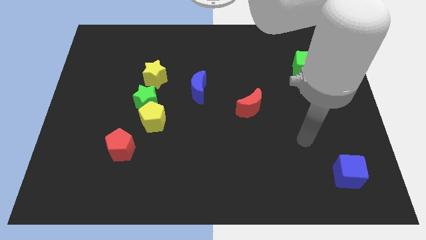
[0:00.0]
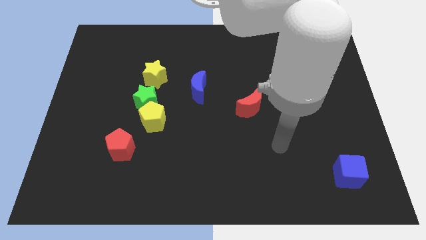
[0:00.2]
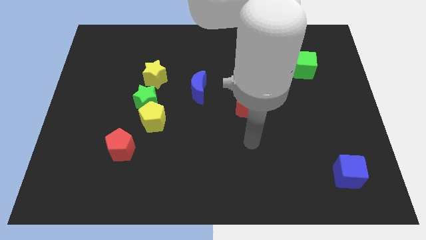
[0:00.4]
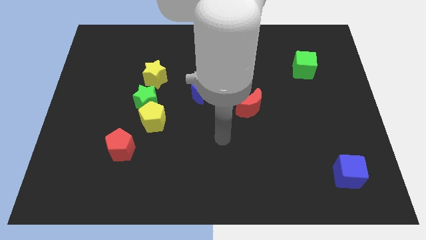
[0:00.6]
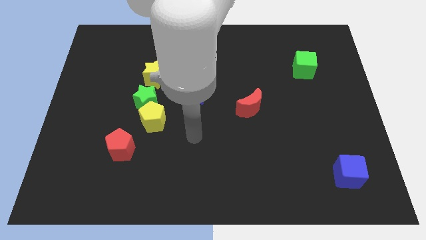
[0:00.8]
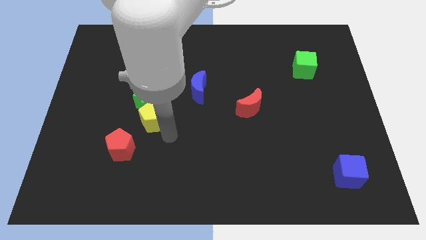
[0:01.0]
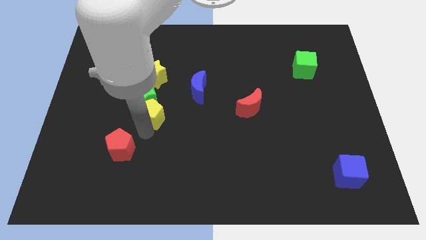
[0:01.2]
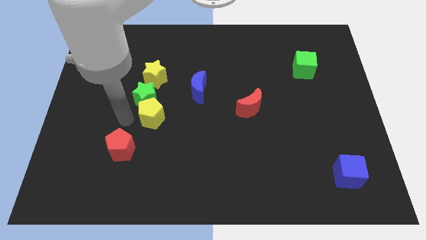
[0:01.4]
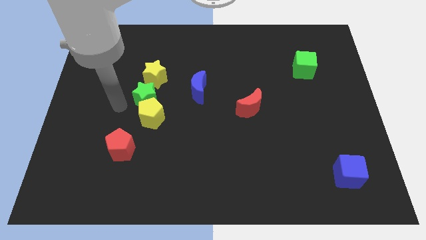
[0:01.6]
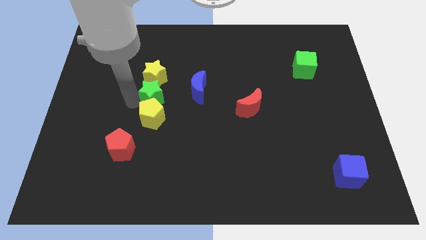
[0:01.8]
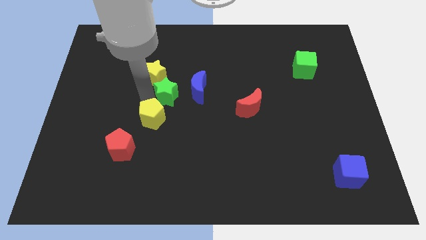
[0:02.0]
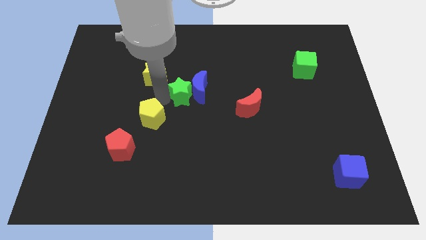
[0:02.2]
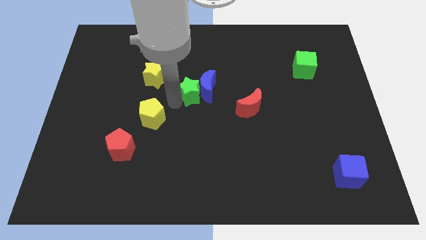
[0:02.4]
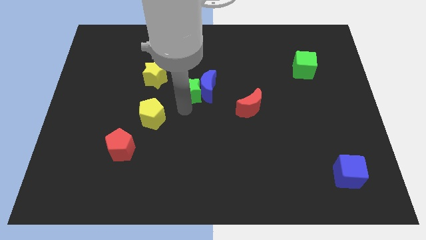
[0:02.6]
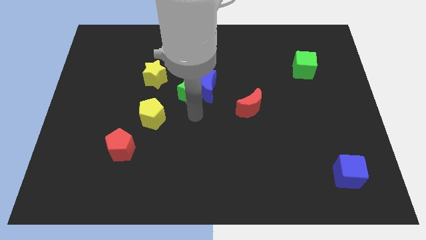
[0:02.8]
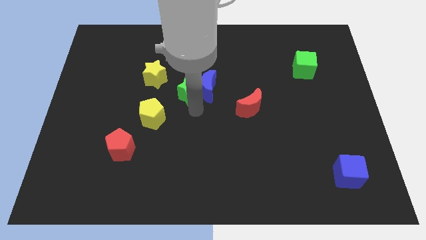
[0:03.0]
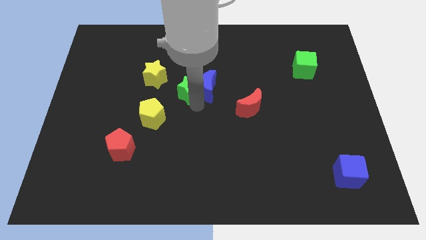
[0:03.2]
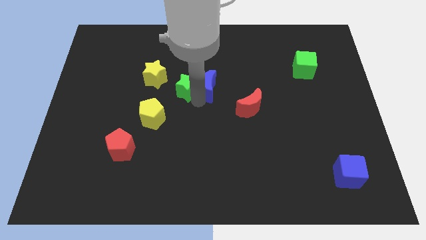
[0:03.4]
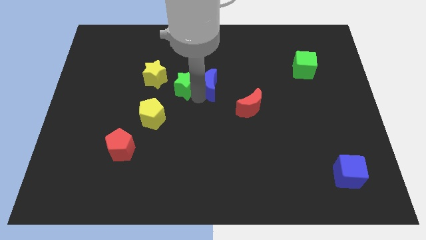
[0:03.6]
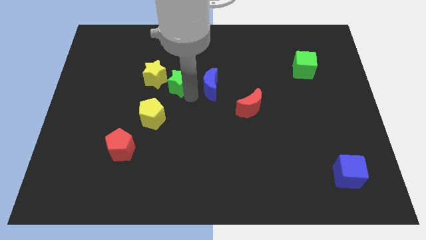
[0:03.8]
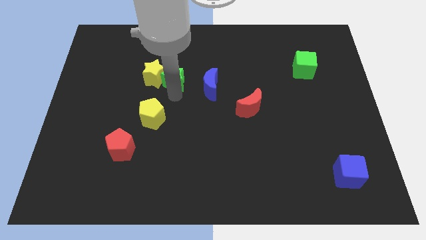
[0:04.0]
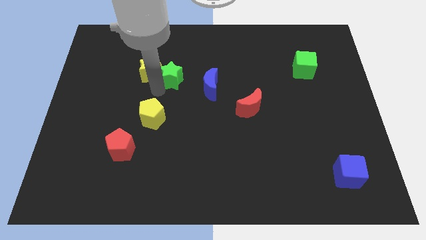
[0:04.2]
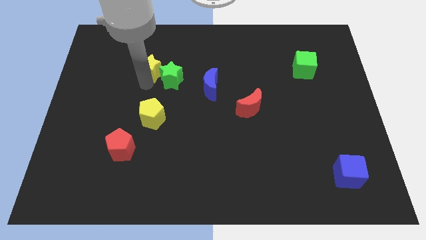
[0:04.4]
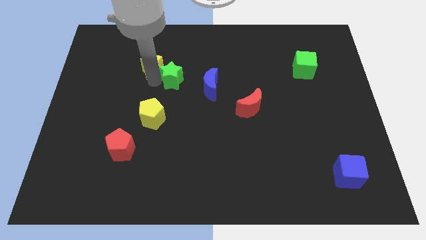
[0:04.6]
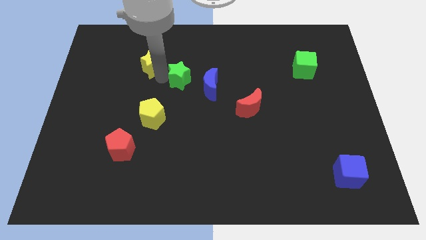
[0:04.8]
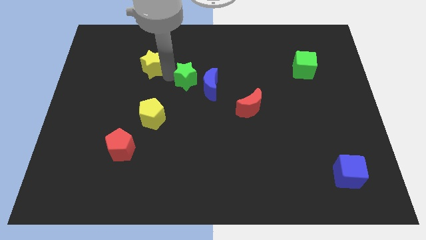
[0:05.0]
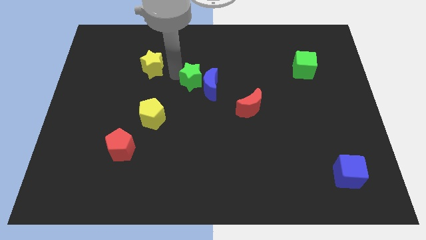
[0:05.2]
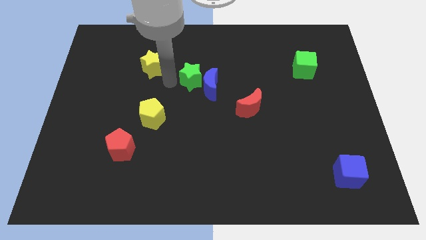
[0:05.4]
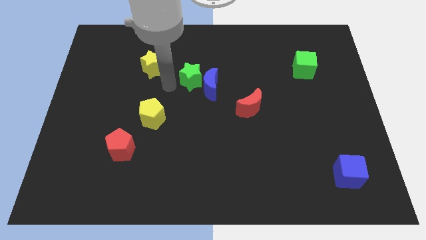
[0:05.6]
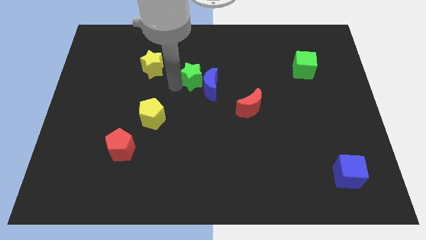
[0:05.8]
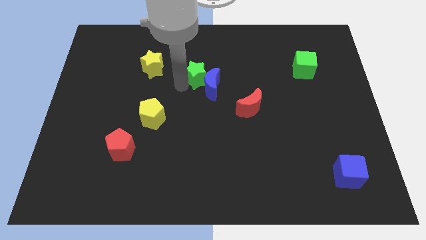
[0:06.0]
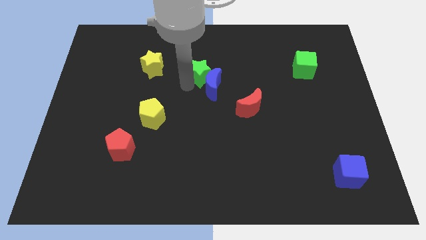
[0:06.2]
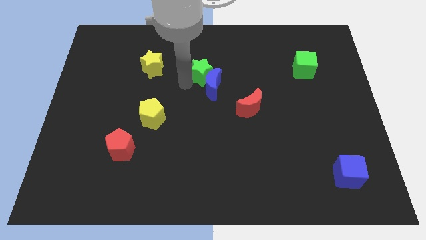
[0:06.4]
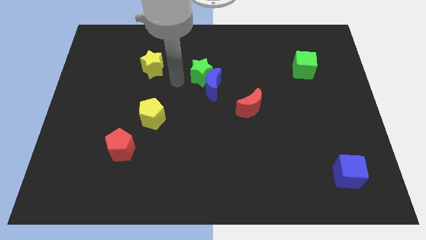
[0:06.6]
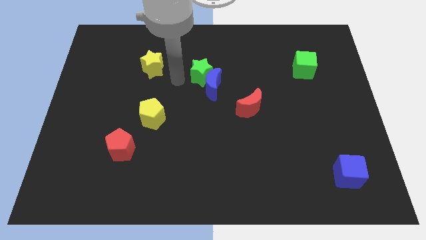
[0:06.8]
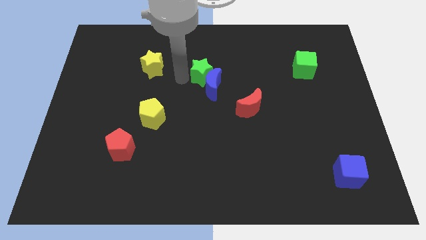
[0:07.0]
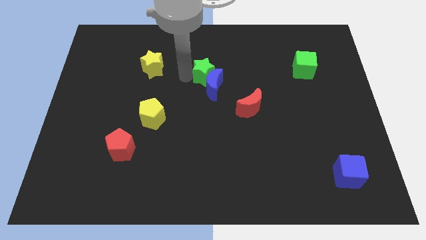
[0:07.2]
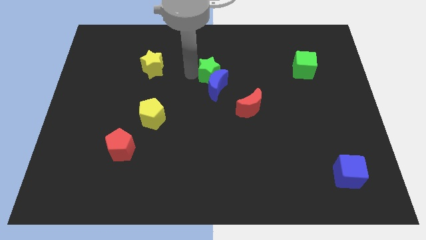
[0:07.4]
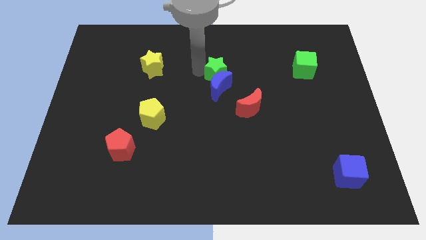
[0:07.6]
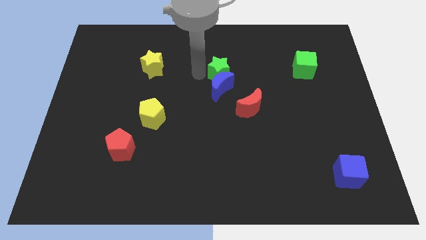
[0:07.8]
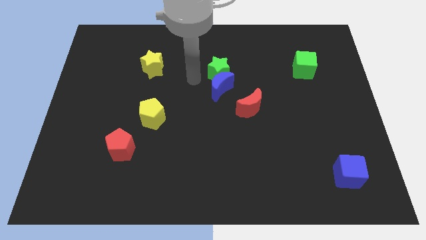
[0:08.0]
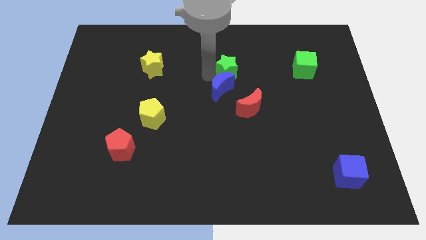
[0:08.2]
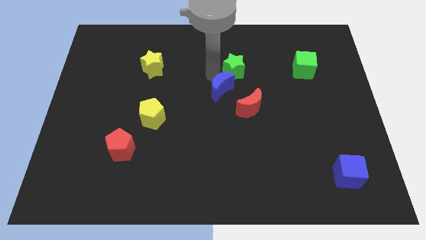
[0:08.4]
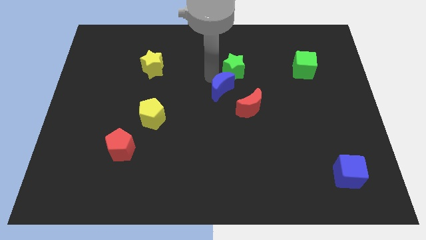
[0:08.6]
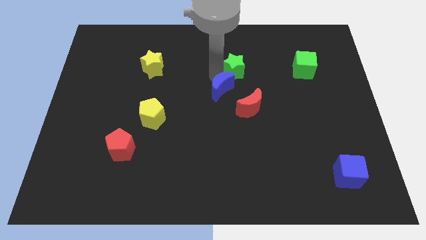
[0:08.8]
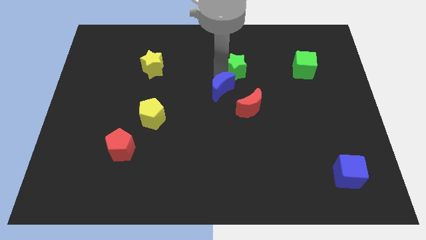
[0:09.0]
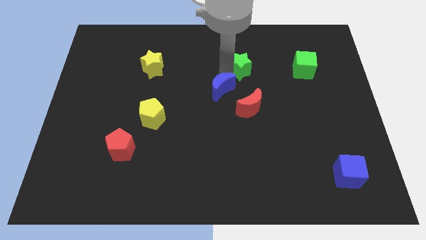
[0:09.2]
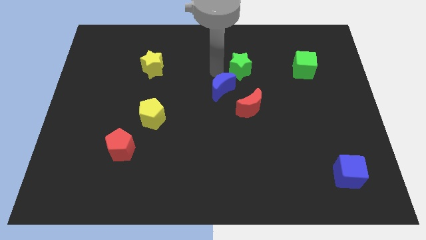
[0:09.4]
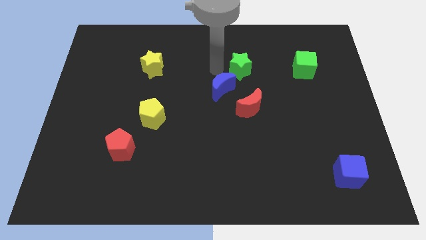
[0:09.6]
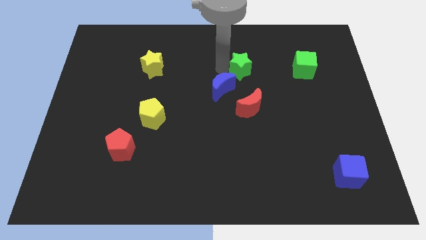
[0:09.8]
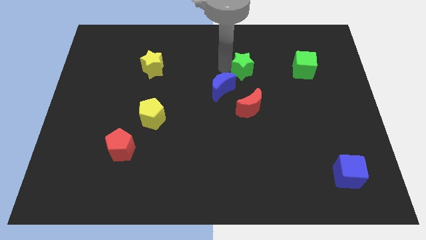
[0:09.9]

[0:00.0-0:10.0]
move the green star just left of the green cube

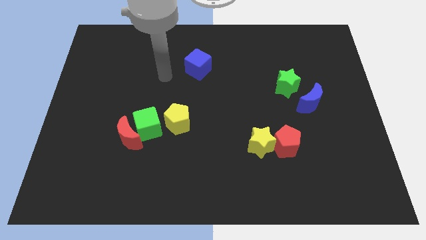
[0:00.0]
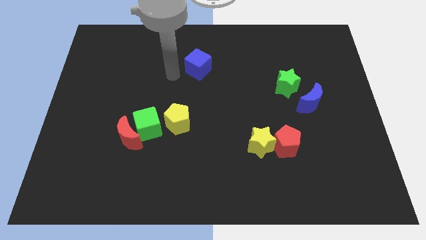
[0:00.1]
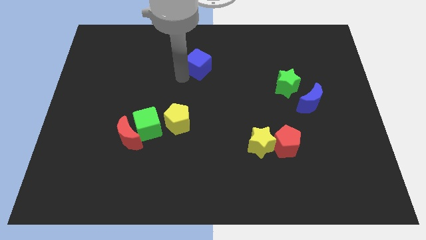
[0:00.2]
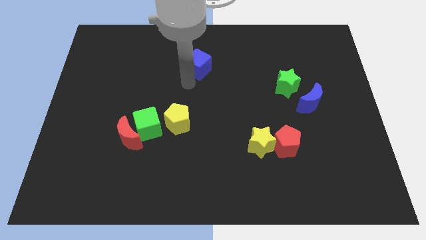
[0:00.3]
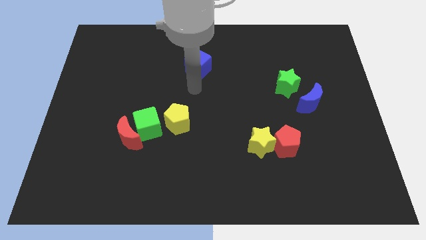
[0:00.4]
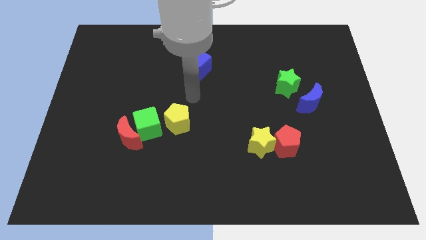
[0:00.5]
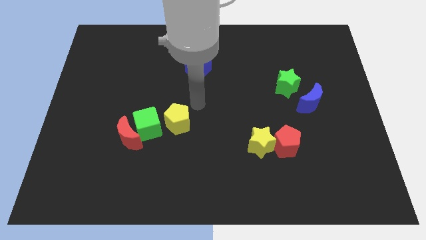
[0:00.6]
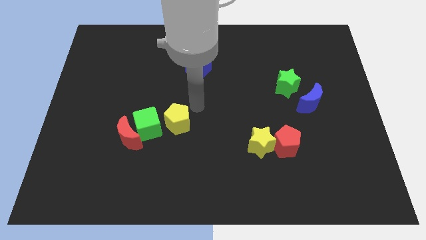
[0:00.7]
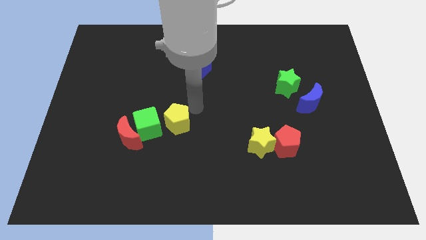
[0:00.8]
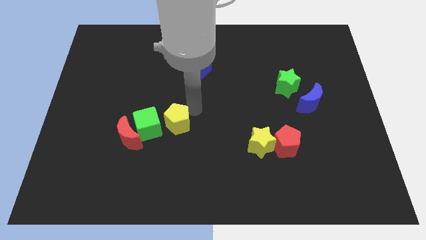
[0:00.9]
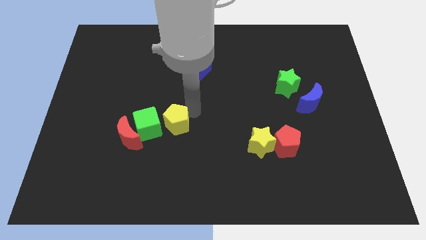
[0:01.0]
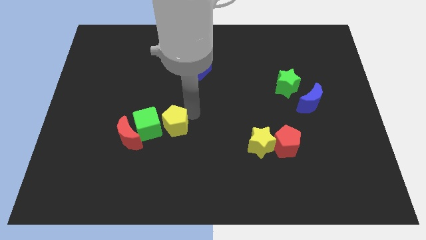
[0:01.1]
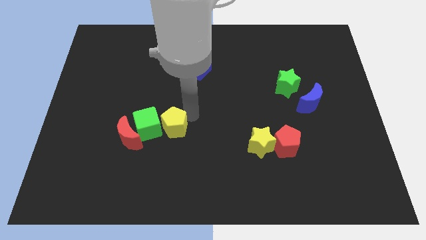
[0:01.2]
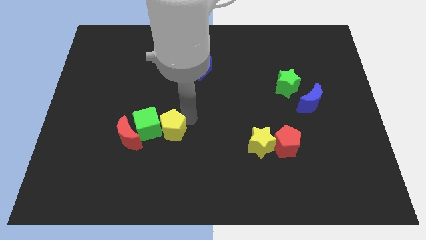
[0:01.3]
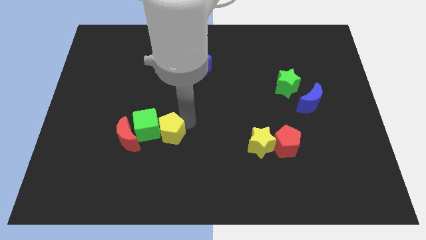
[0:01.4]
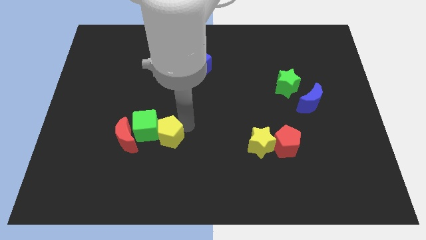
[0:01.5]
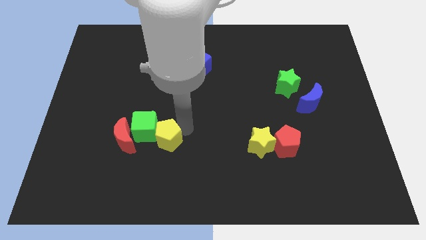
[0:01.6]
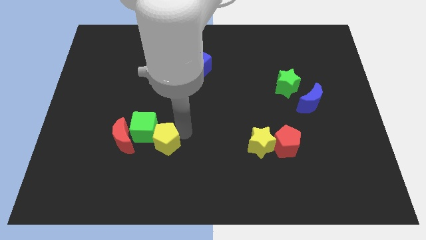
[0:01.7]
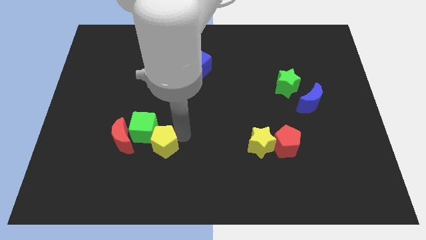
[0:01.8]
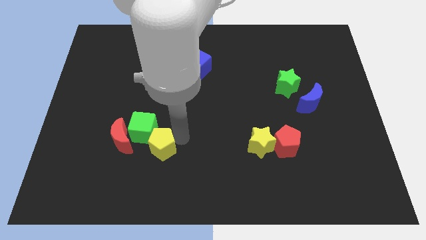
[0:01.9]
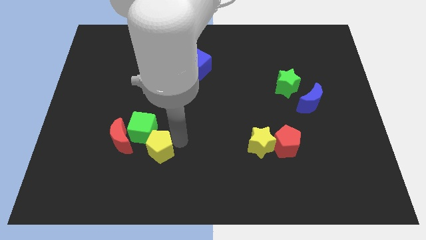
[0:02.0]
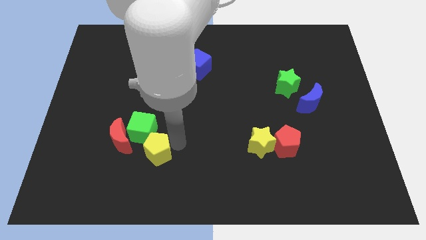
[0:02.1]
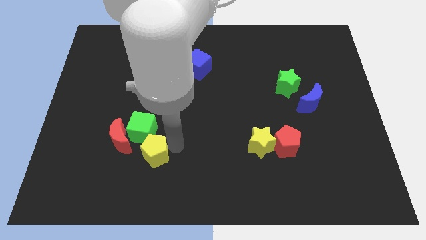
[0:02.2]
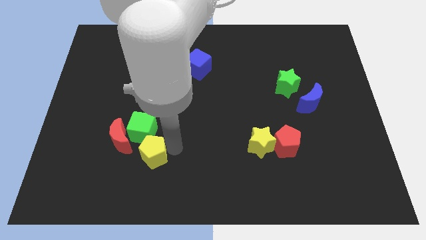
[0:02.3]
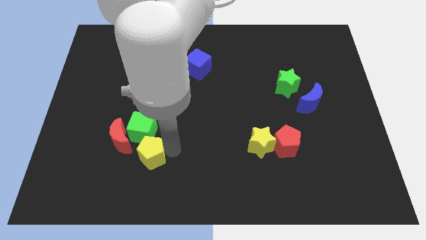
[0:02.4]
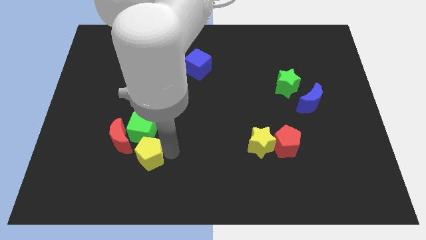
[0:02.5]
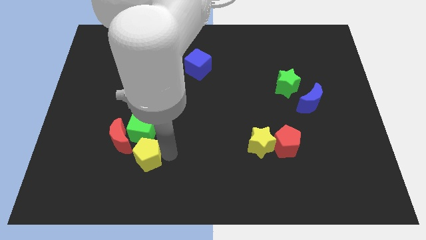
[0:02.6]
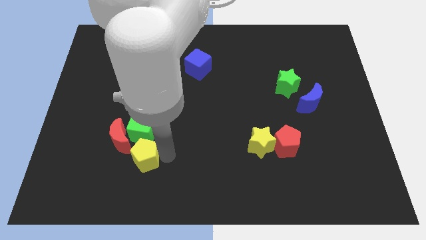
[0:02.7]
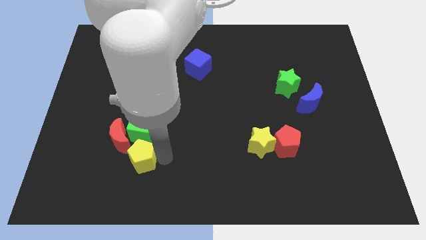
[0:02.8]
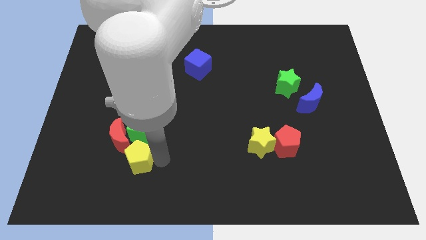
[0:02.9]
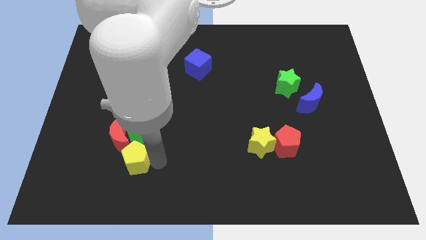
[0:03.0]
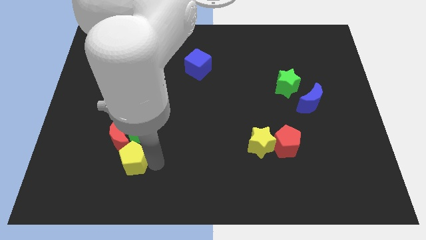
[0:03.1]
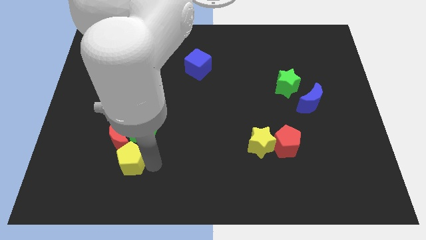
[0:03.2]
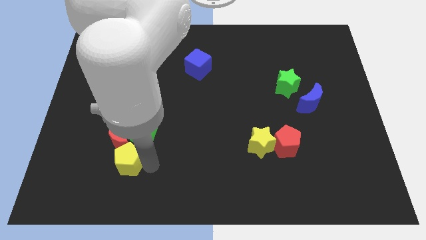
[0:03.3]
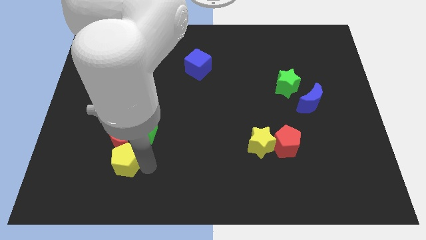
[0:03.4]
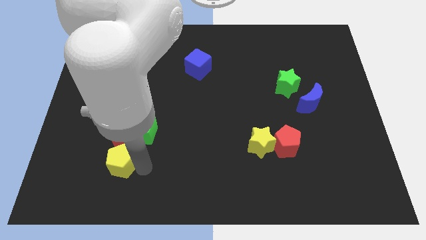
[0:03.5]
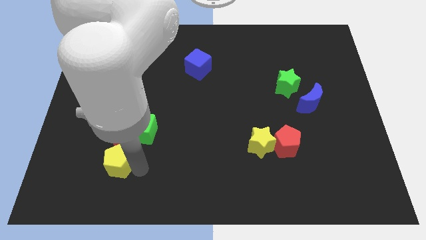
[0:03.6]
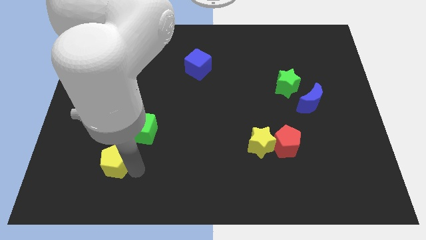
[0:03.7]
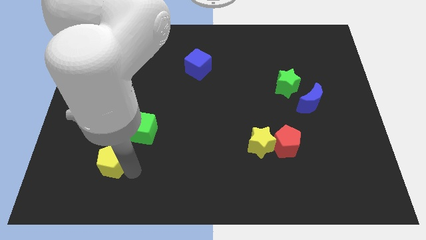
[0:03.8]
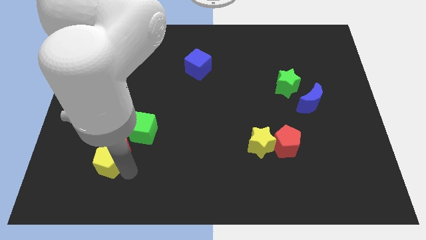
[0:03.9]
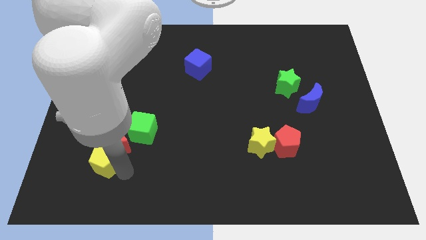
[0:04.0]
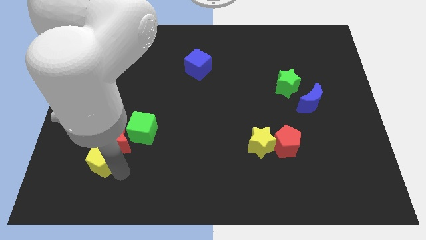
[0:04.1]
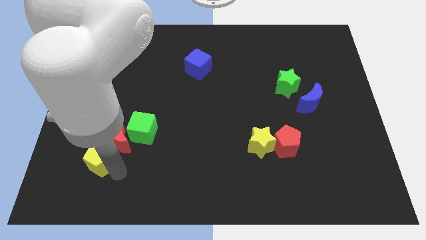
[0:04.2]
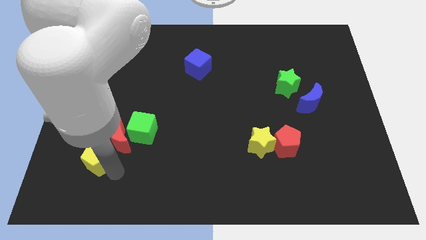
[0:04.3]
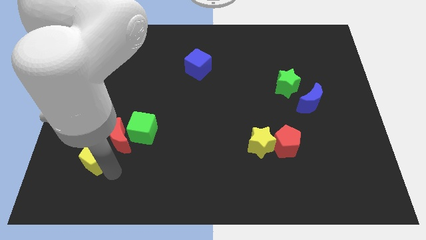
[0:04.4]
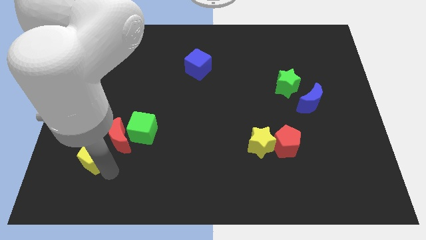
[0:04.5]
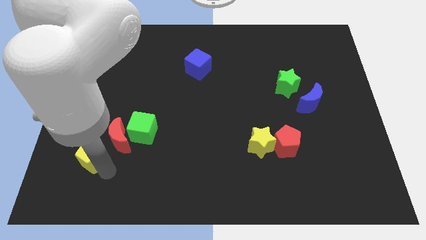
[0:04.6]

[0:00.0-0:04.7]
slide the yellow pentagon to the left of the red moon
